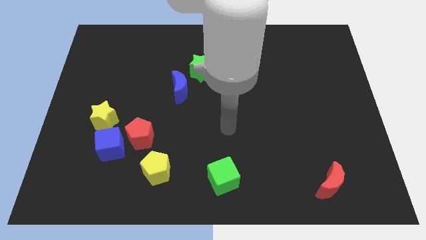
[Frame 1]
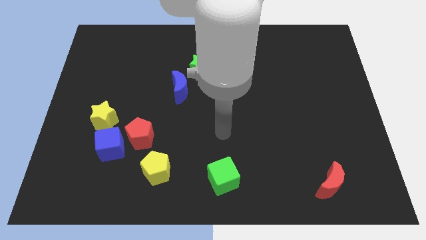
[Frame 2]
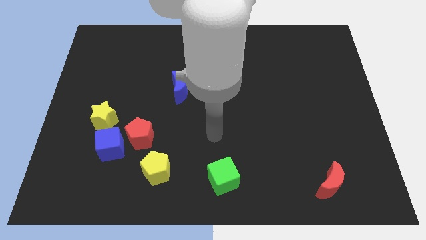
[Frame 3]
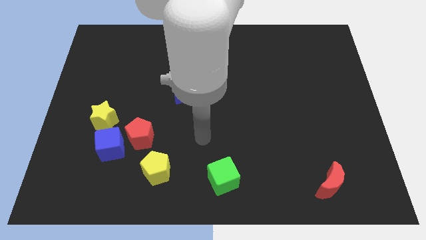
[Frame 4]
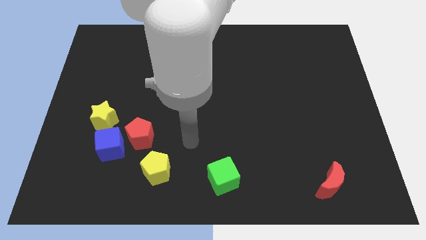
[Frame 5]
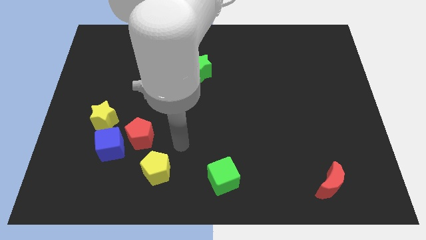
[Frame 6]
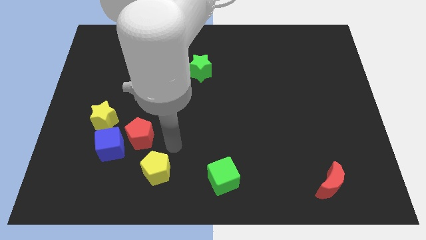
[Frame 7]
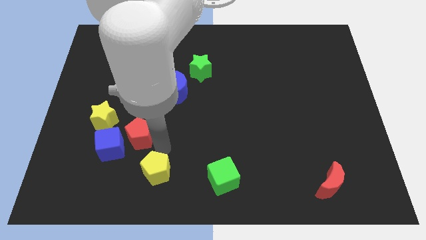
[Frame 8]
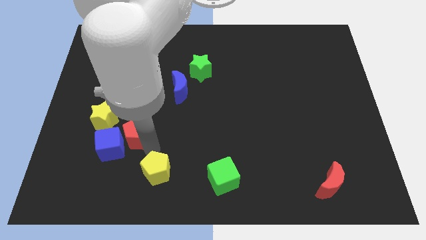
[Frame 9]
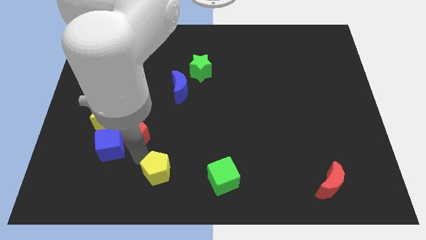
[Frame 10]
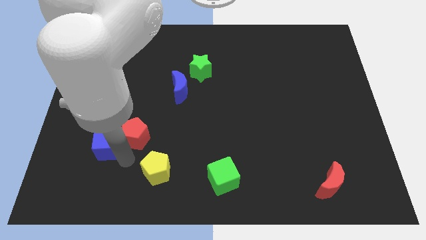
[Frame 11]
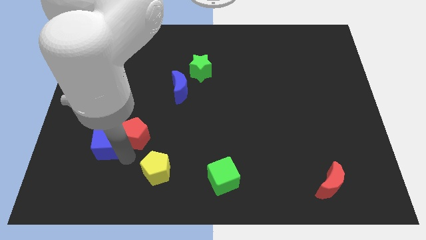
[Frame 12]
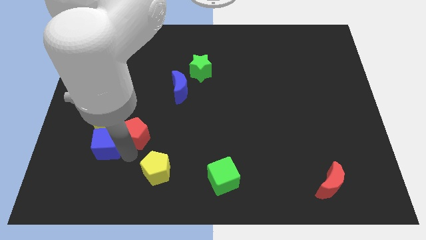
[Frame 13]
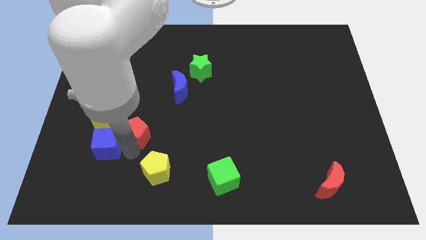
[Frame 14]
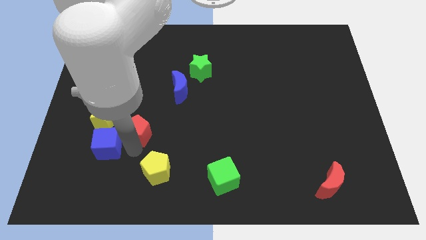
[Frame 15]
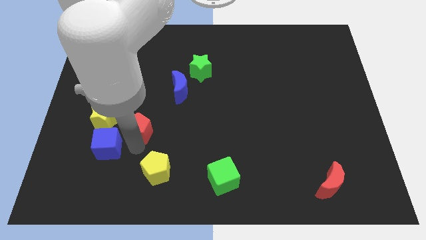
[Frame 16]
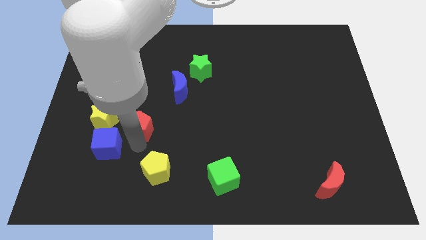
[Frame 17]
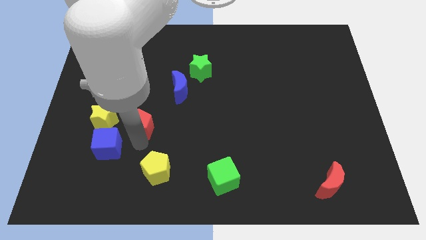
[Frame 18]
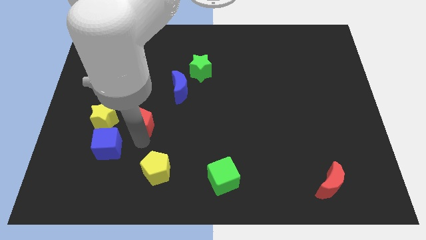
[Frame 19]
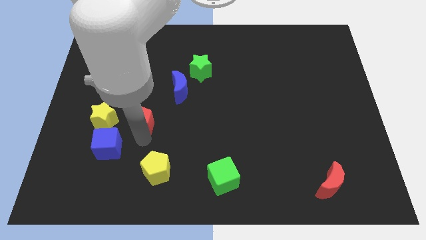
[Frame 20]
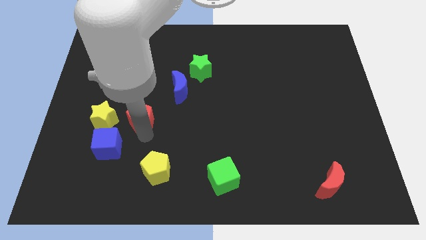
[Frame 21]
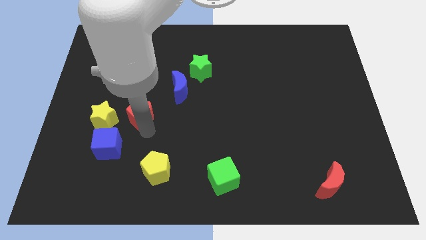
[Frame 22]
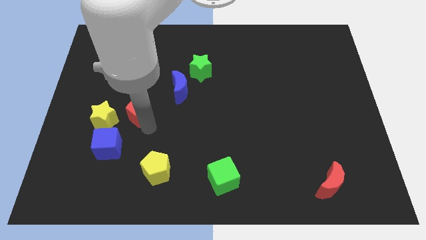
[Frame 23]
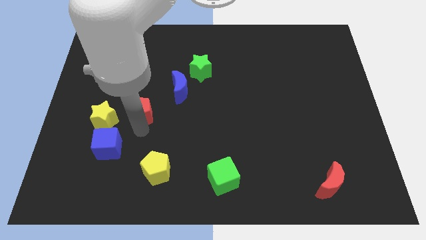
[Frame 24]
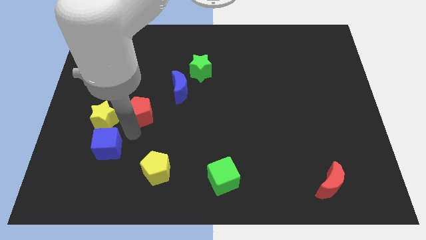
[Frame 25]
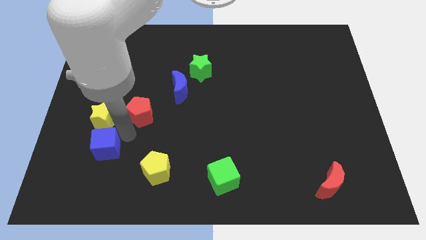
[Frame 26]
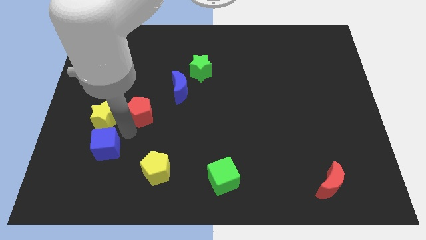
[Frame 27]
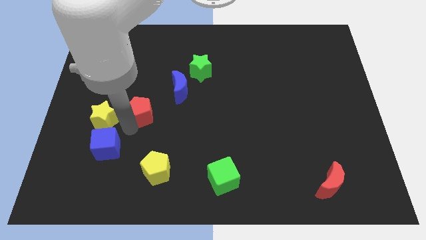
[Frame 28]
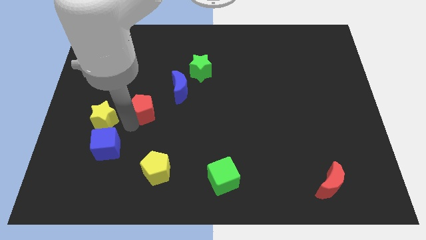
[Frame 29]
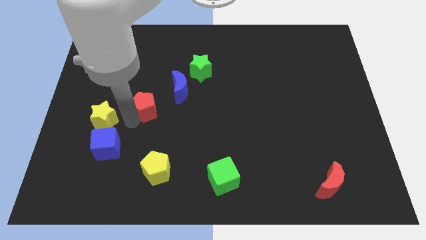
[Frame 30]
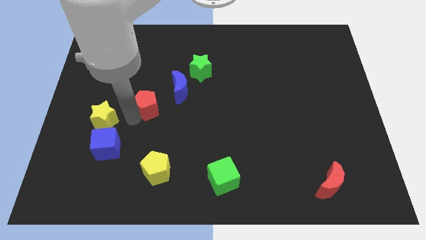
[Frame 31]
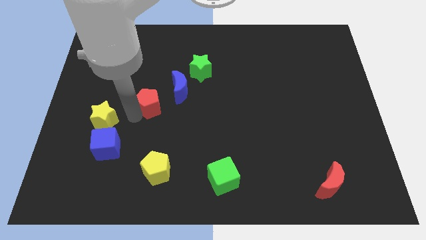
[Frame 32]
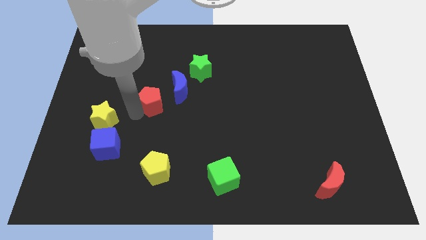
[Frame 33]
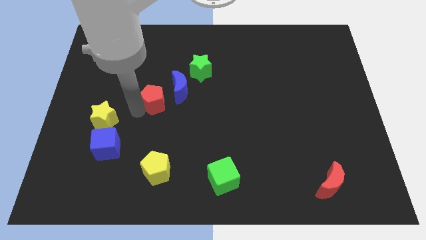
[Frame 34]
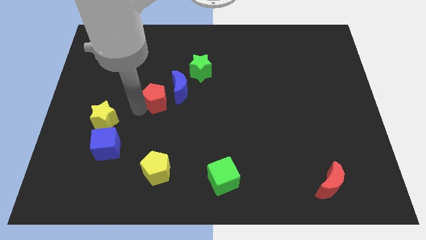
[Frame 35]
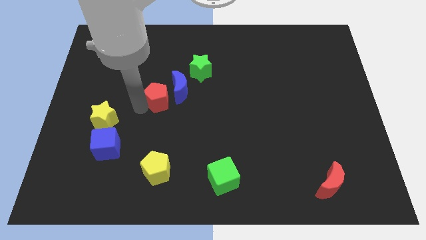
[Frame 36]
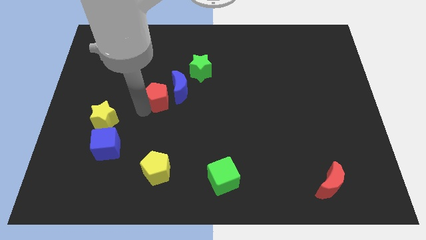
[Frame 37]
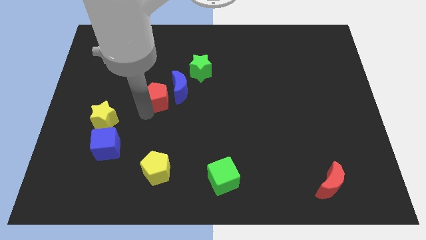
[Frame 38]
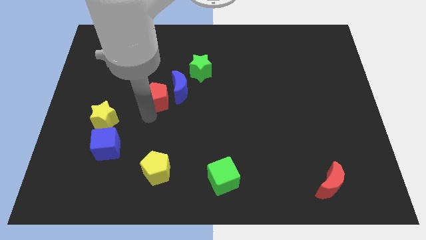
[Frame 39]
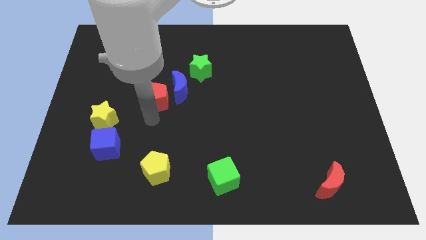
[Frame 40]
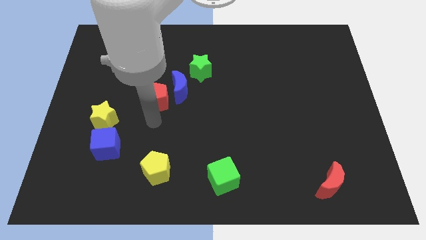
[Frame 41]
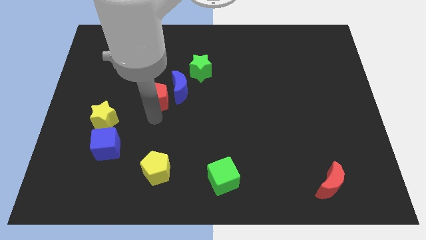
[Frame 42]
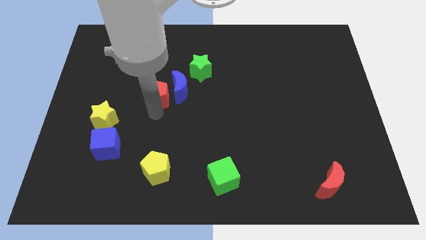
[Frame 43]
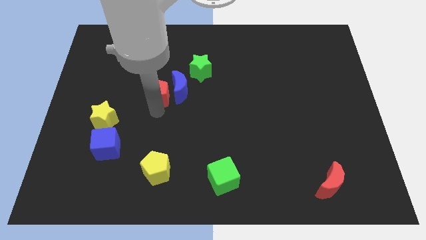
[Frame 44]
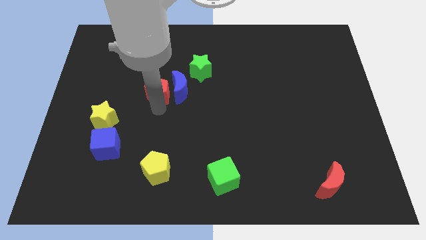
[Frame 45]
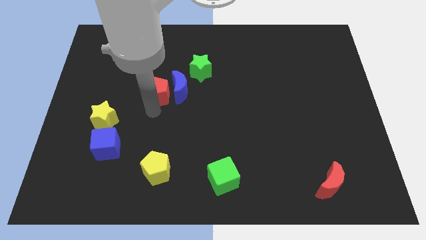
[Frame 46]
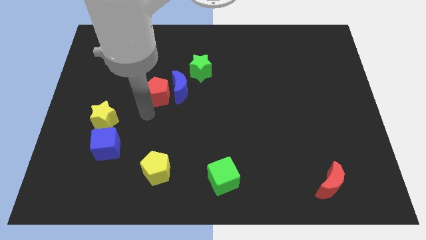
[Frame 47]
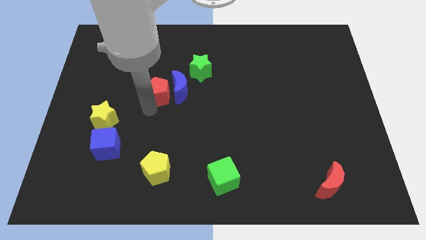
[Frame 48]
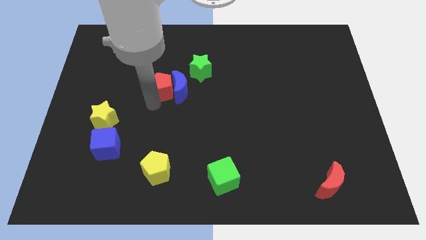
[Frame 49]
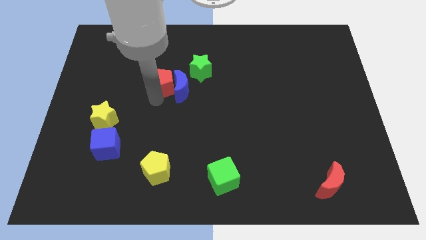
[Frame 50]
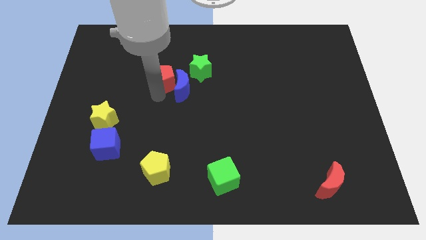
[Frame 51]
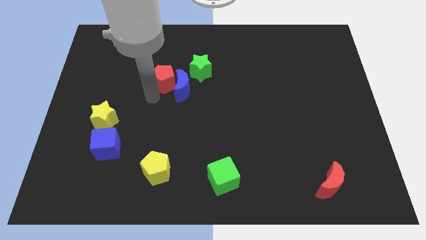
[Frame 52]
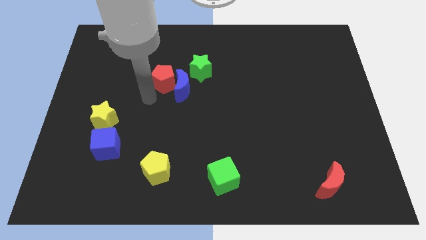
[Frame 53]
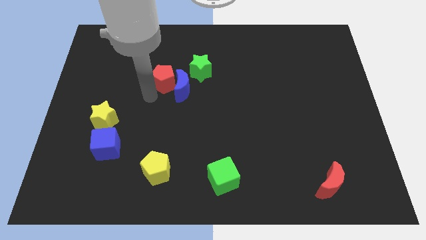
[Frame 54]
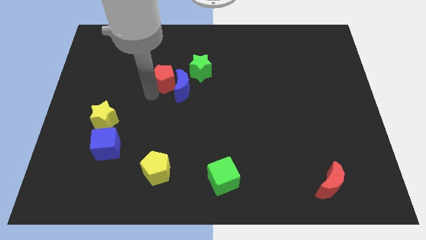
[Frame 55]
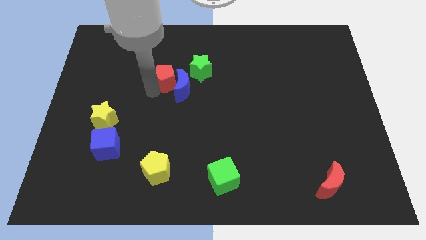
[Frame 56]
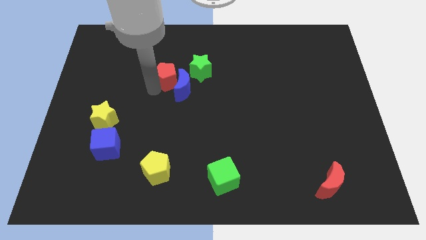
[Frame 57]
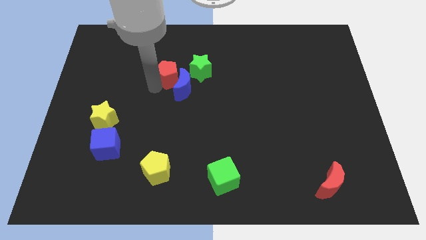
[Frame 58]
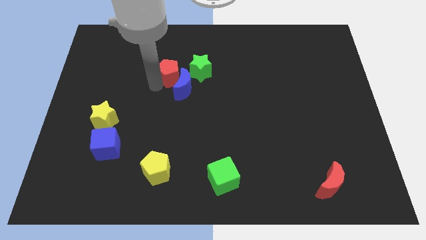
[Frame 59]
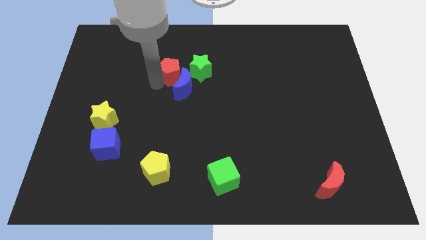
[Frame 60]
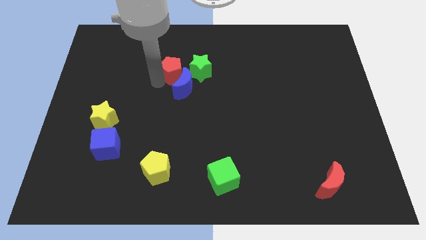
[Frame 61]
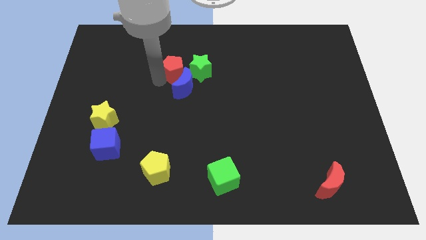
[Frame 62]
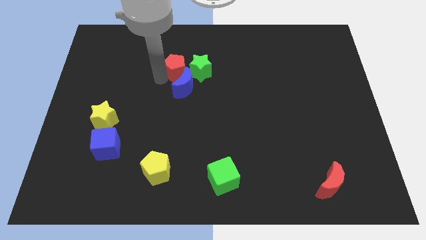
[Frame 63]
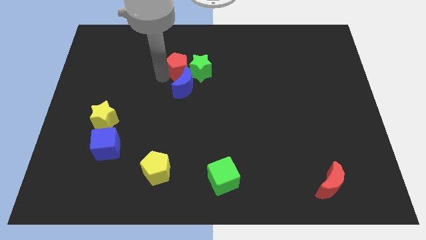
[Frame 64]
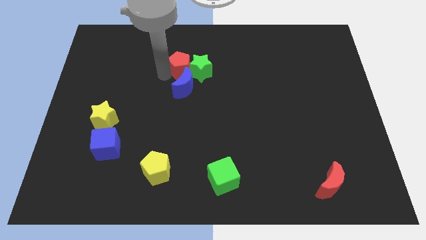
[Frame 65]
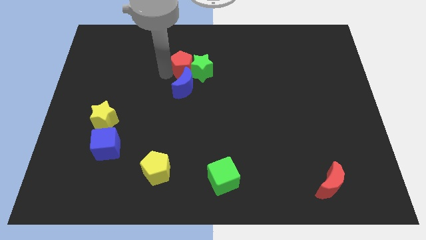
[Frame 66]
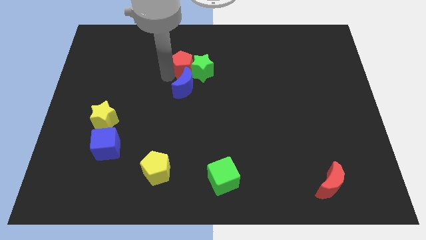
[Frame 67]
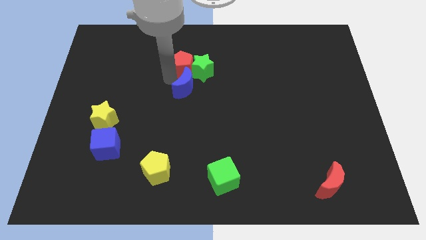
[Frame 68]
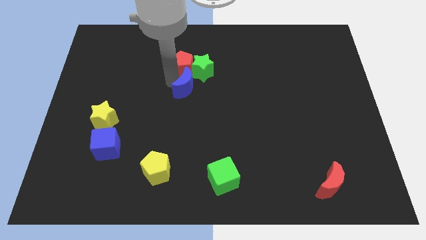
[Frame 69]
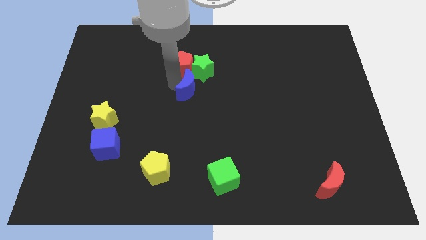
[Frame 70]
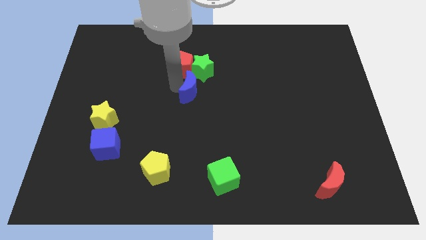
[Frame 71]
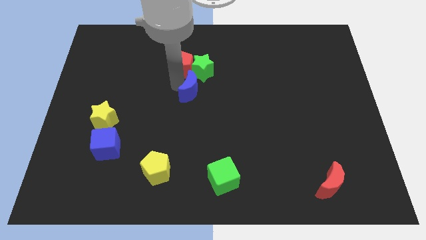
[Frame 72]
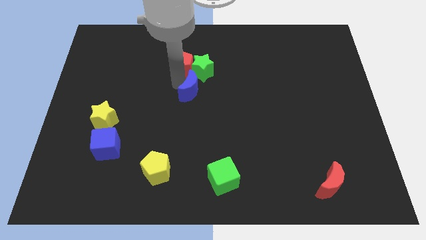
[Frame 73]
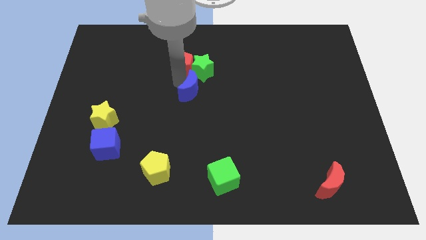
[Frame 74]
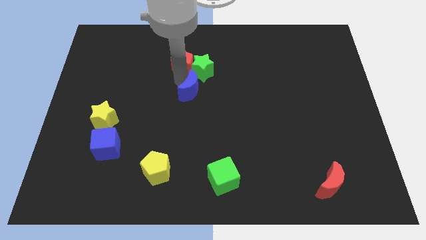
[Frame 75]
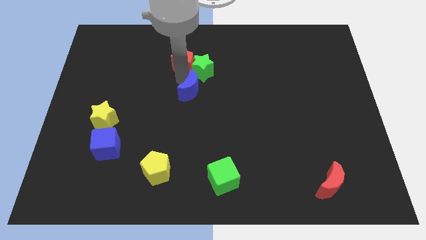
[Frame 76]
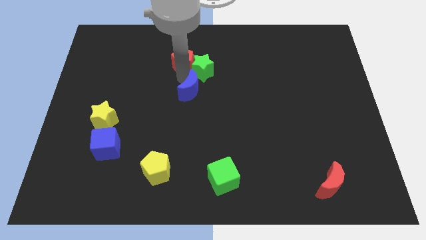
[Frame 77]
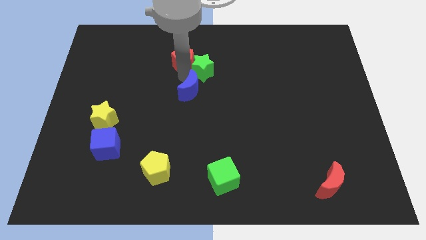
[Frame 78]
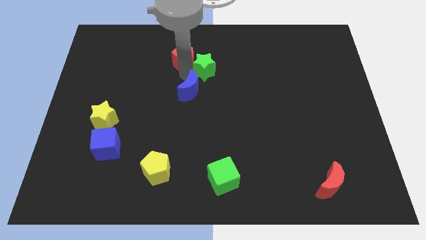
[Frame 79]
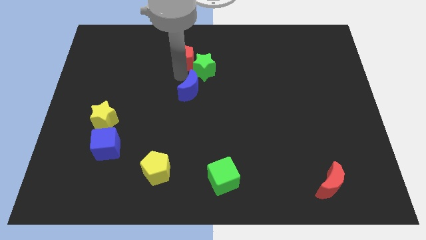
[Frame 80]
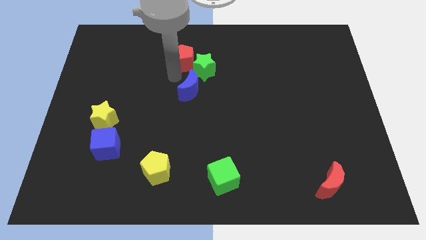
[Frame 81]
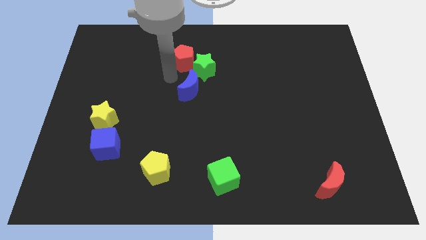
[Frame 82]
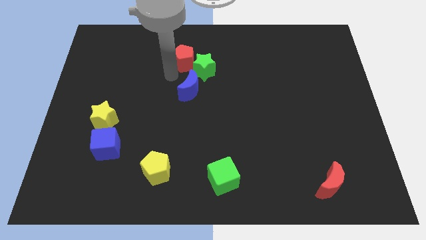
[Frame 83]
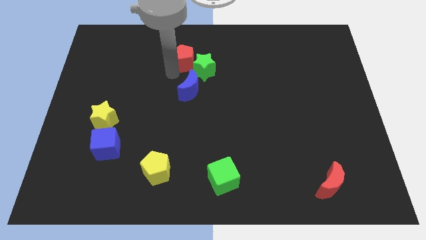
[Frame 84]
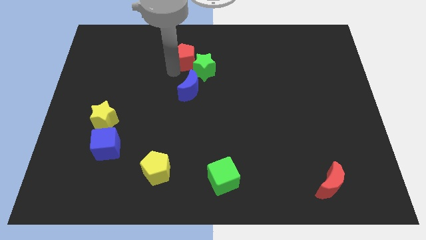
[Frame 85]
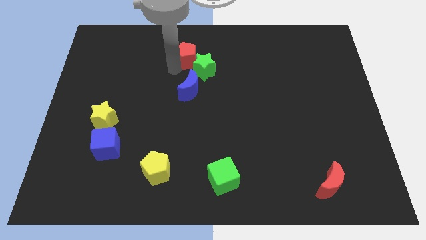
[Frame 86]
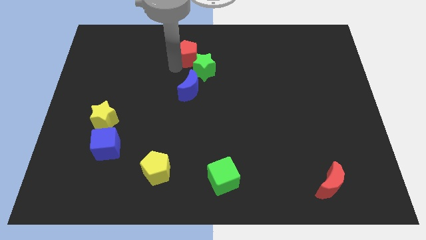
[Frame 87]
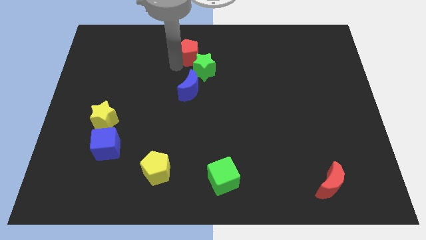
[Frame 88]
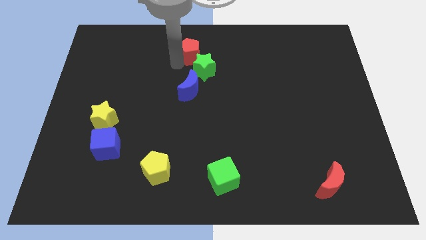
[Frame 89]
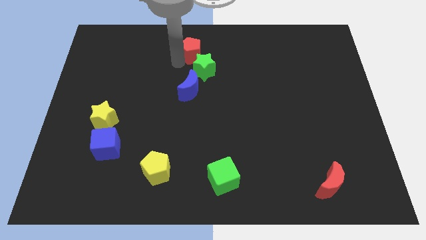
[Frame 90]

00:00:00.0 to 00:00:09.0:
push the red pentagon to the top
